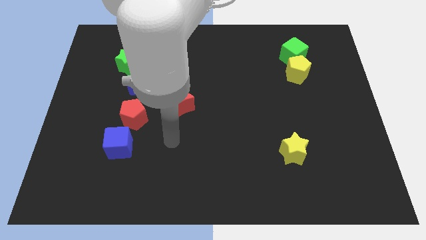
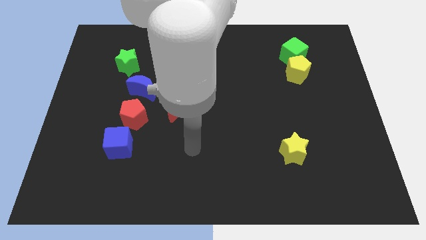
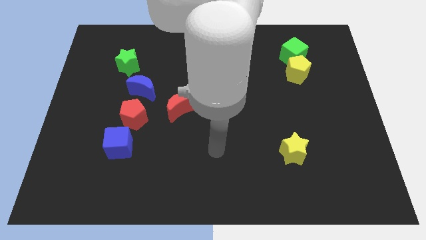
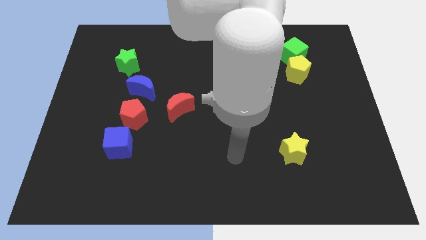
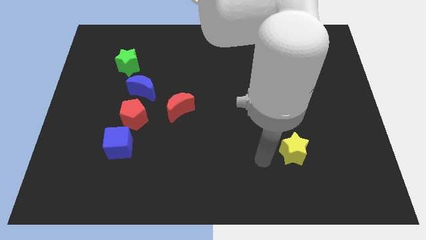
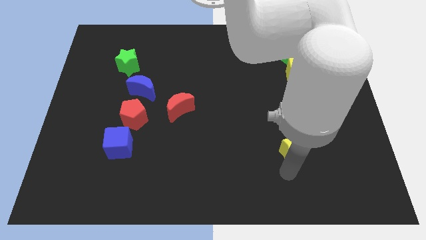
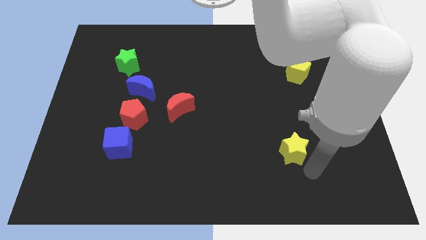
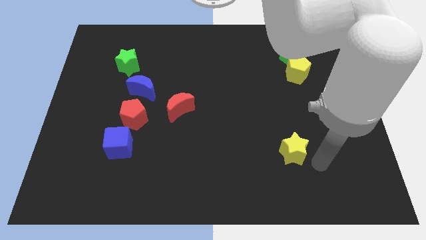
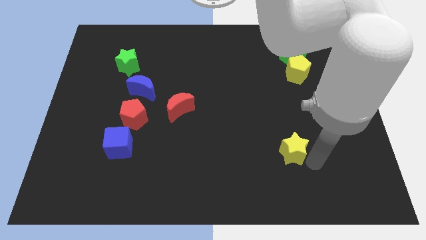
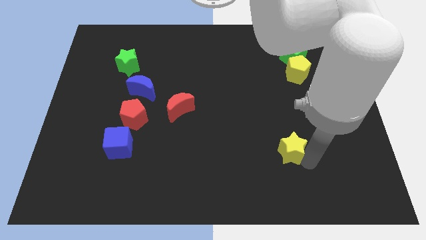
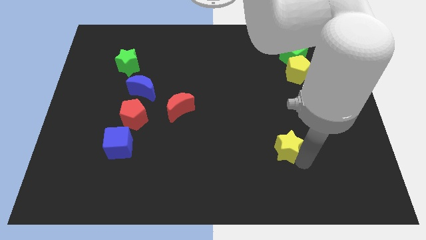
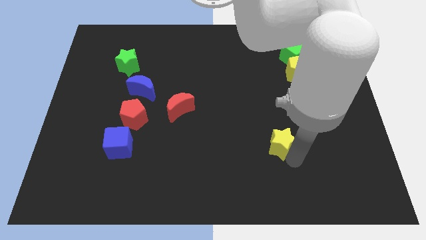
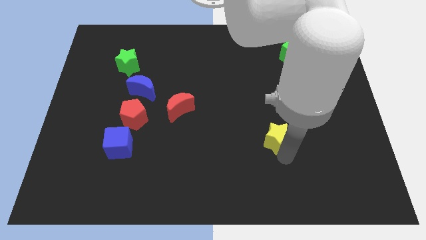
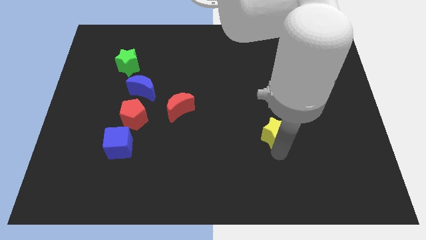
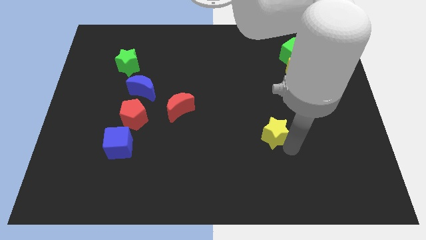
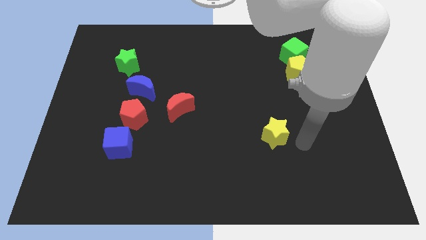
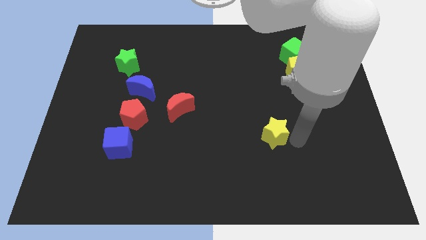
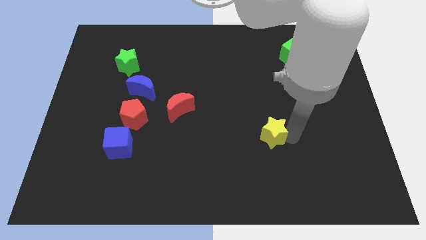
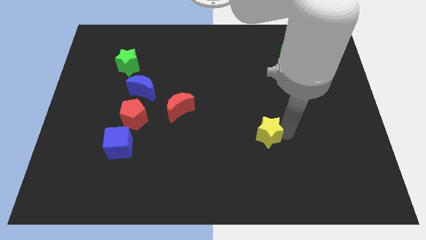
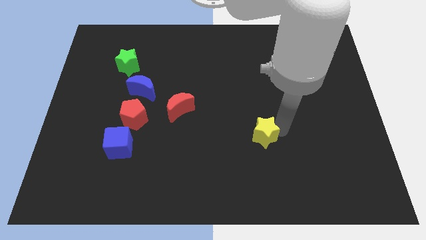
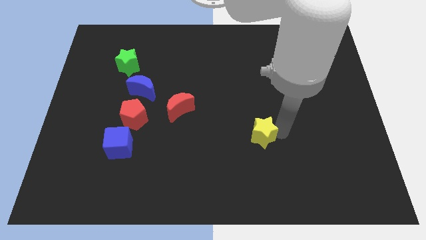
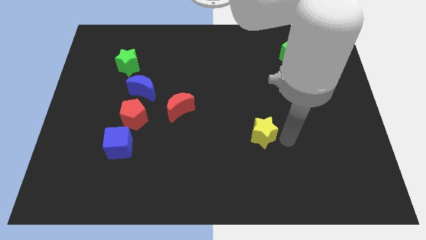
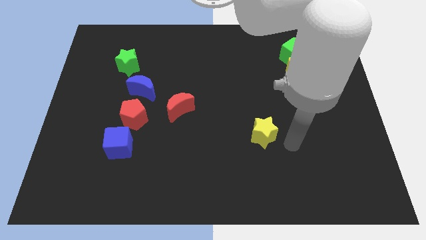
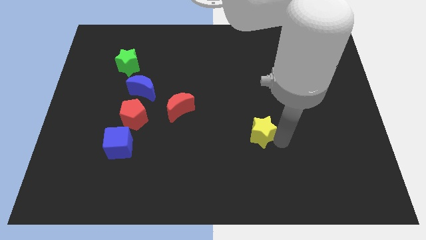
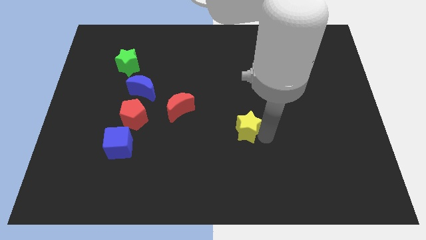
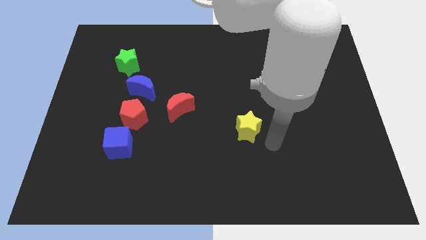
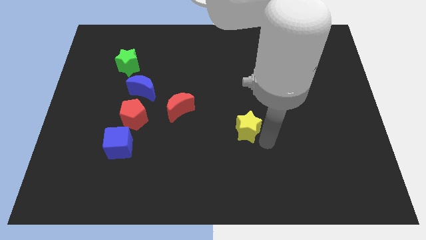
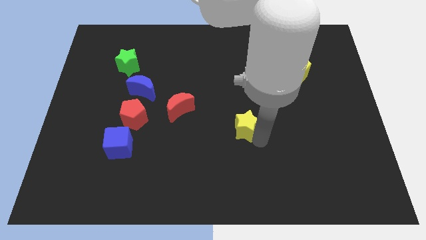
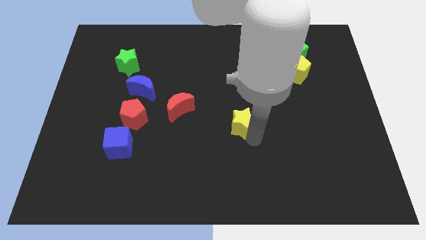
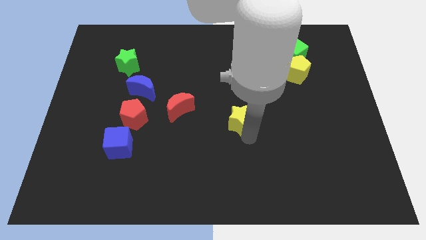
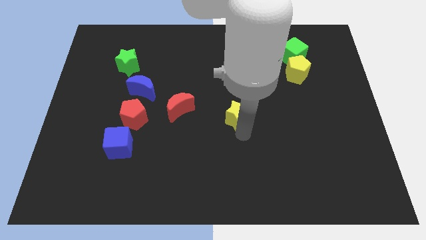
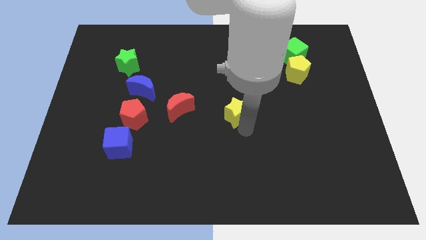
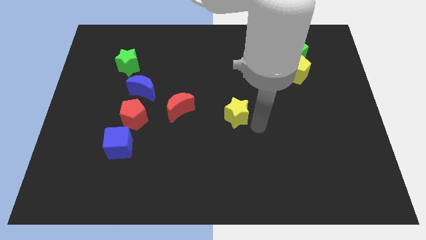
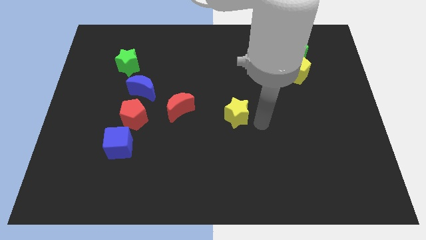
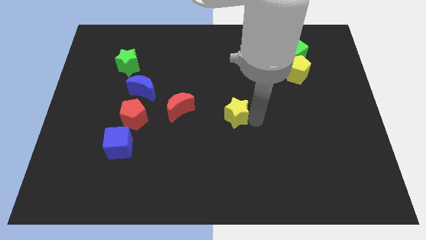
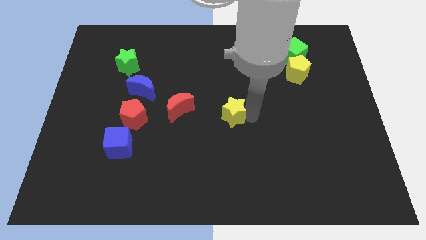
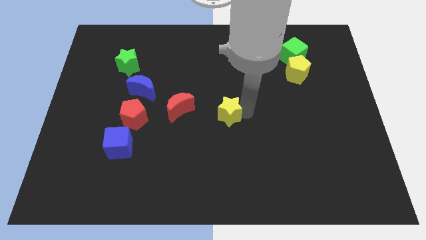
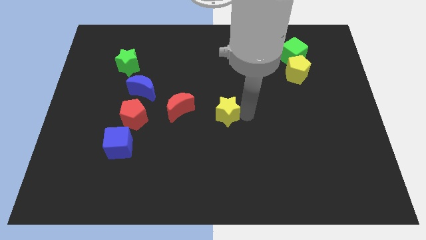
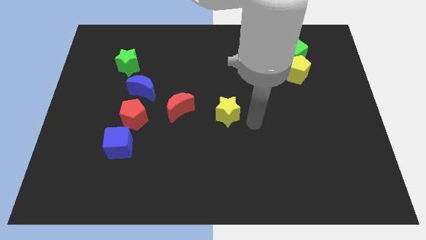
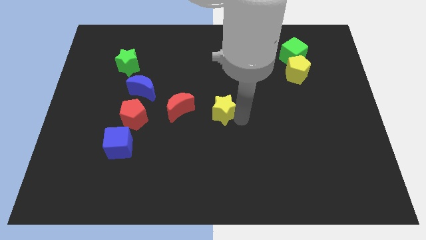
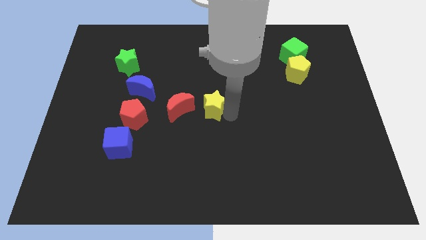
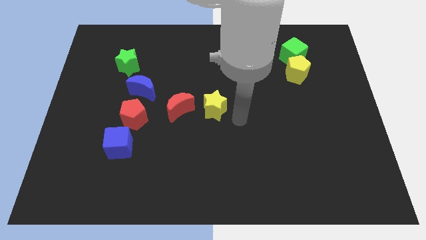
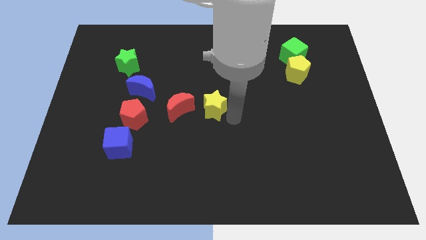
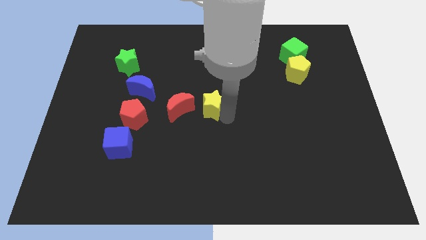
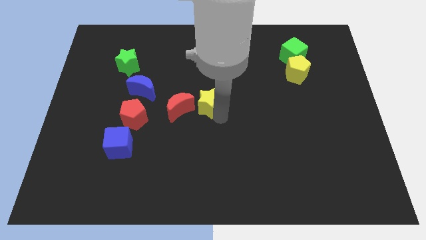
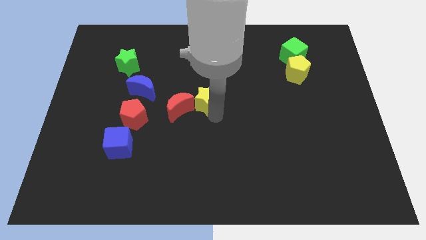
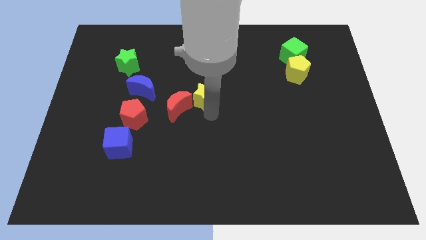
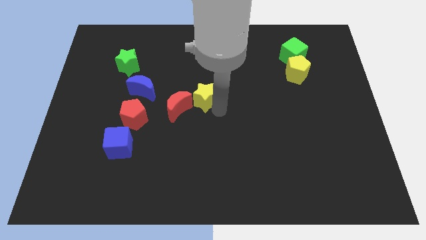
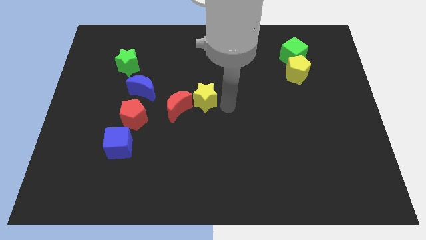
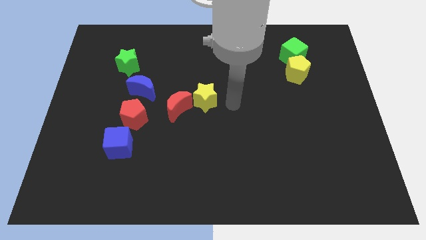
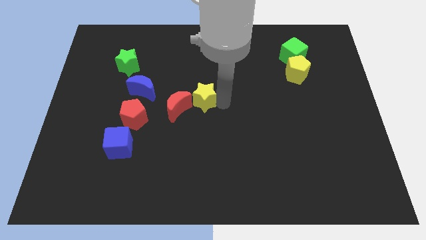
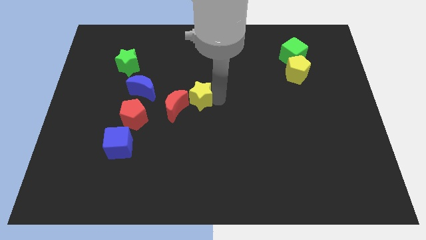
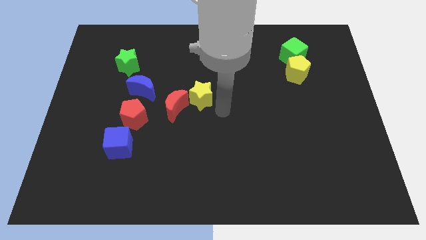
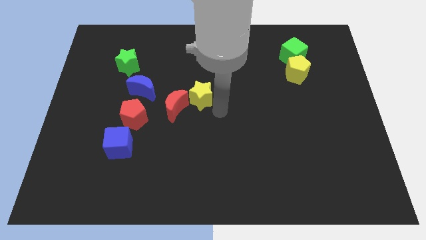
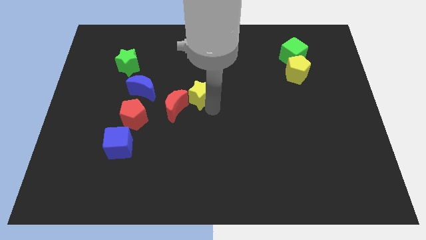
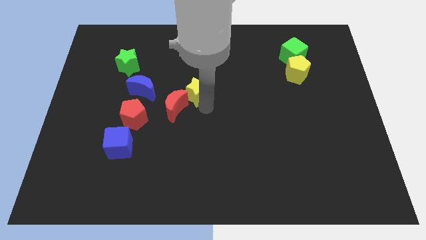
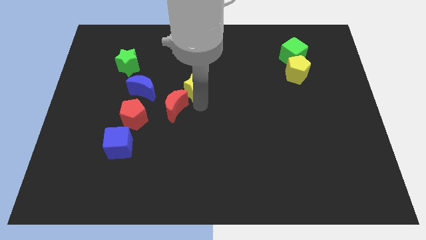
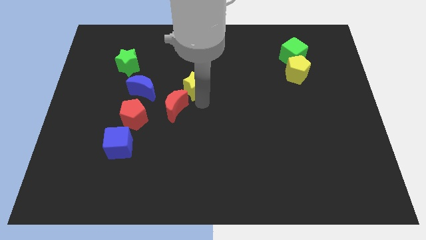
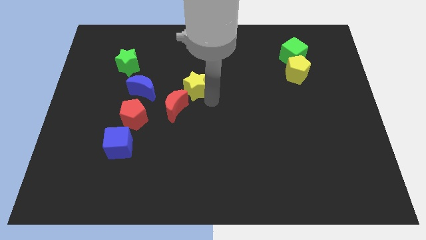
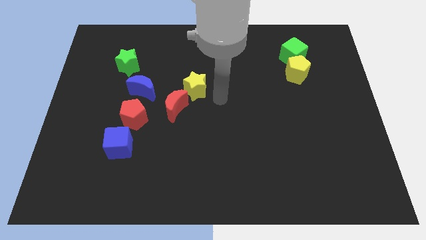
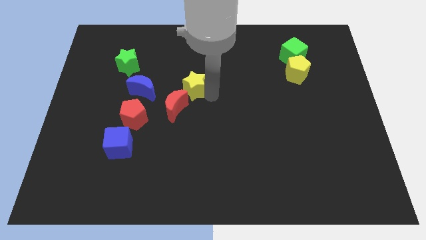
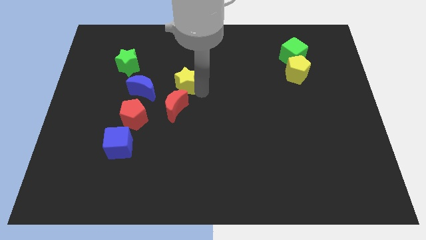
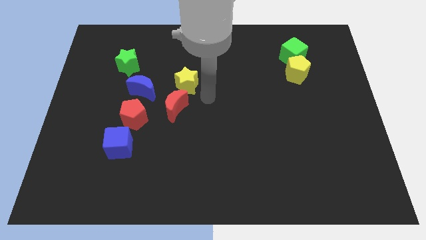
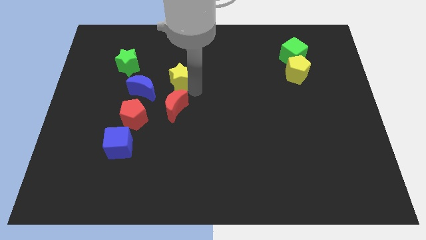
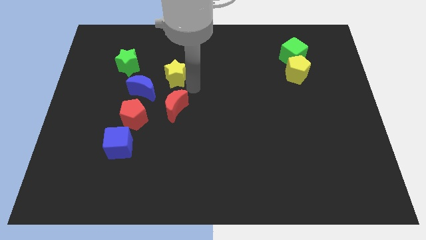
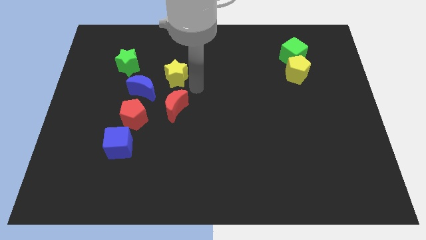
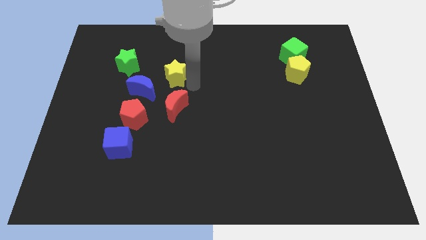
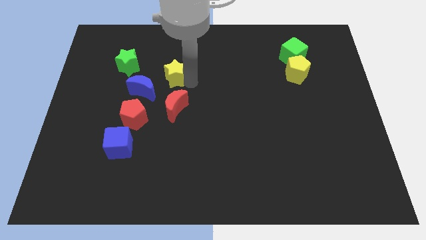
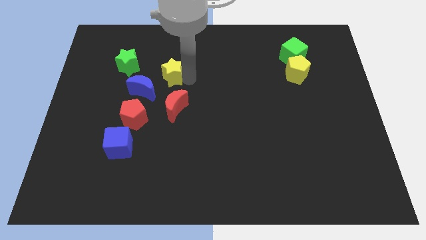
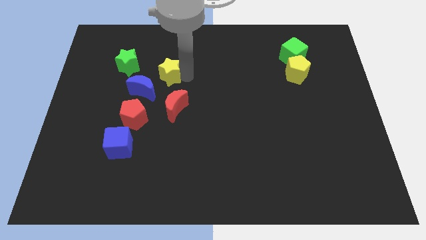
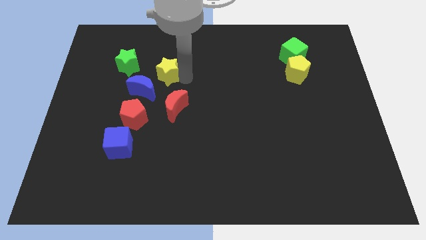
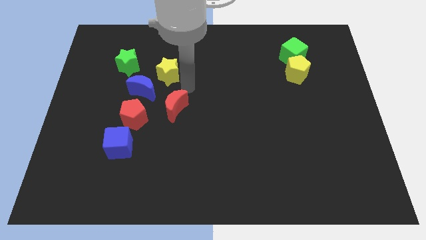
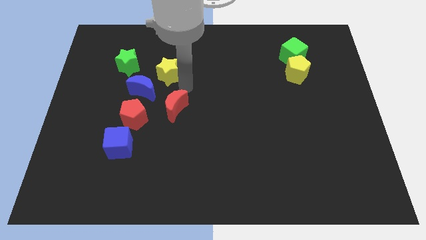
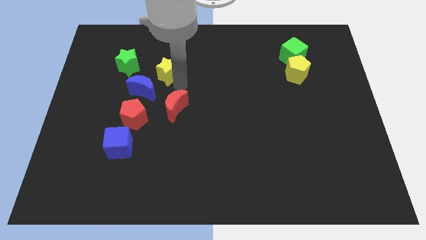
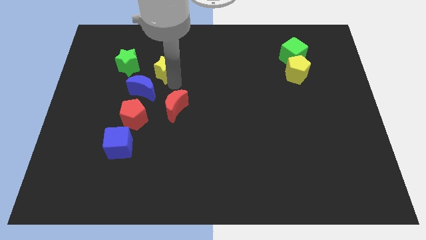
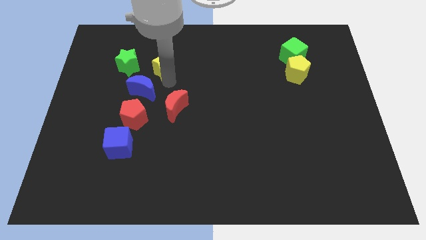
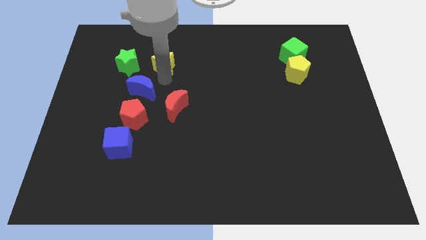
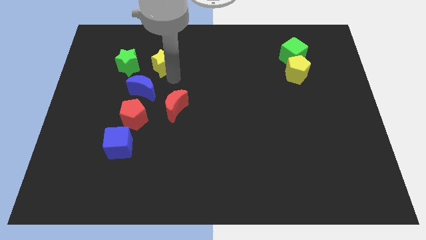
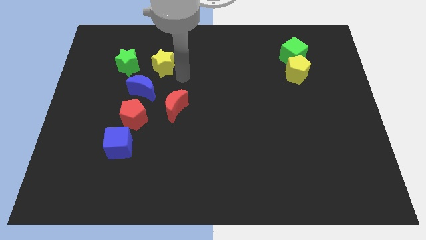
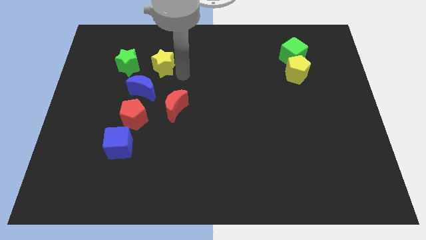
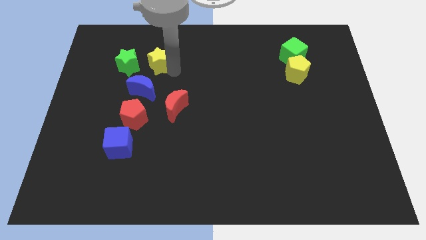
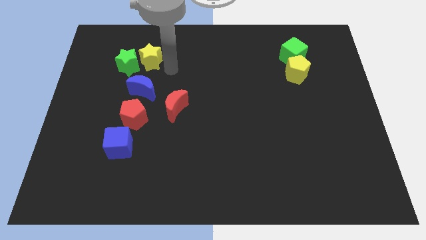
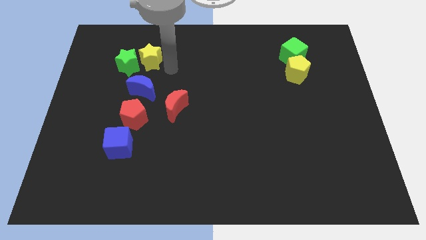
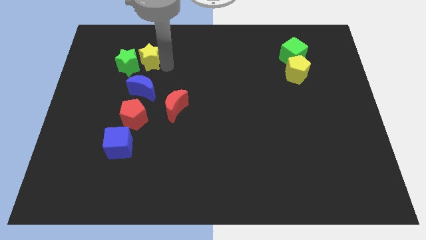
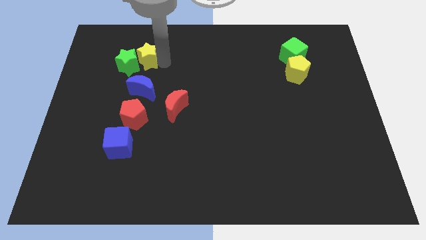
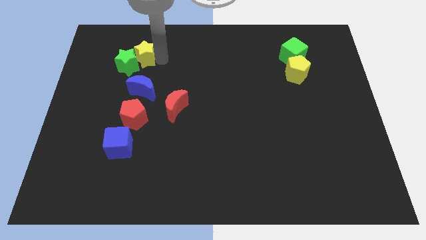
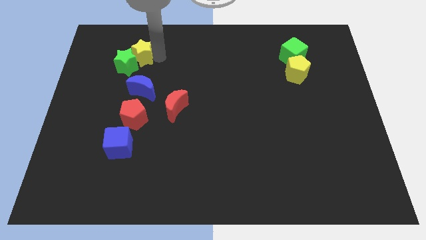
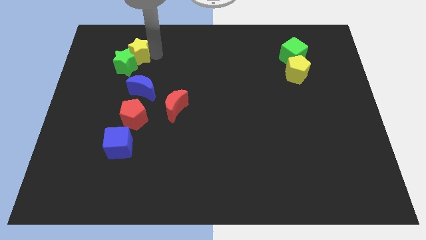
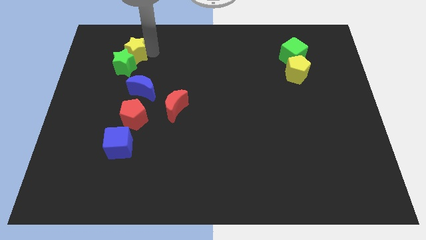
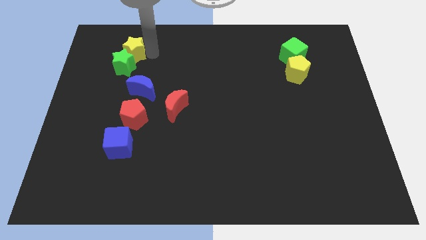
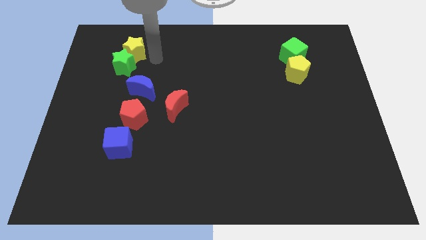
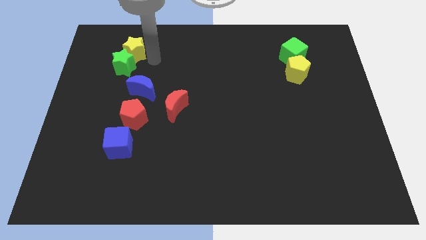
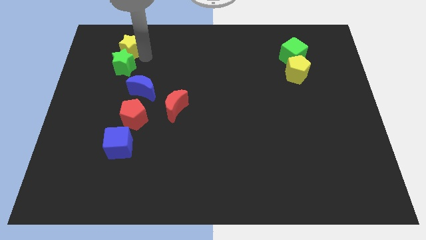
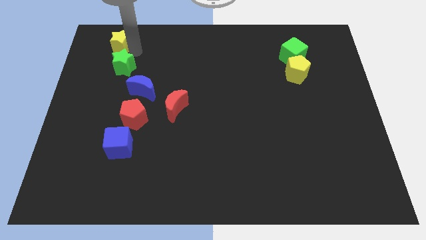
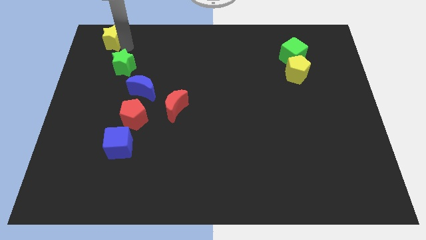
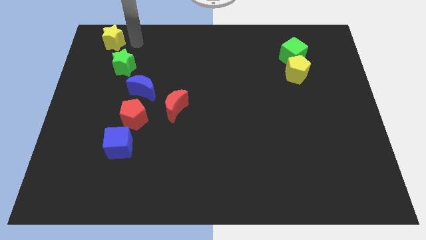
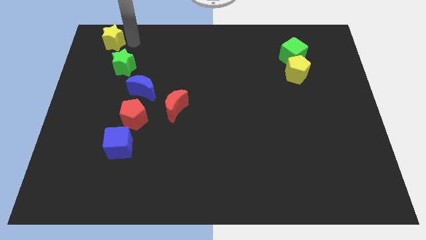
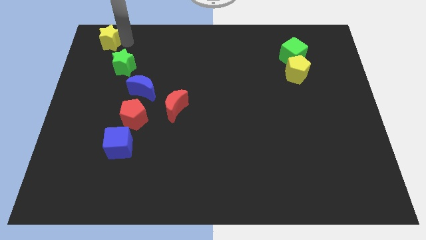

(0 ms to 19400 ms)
slide the yellow star to the top left of the board
